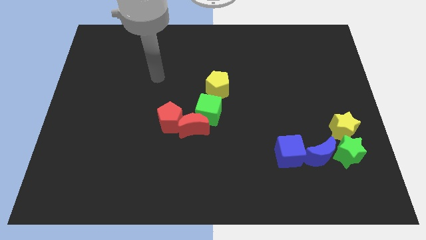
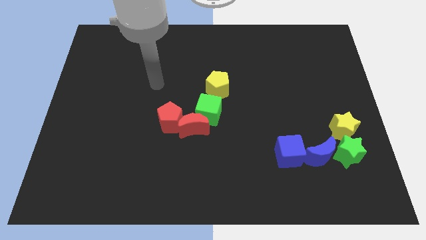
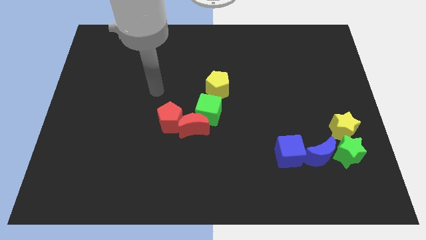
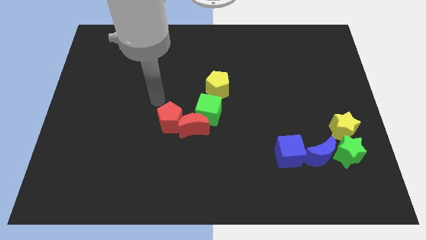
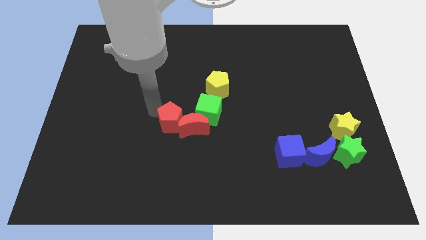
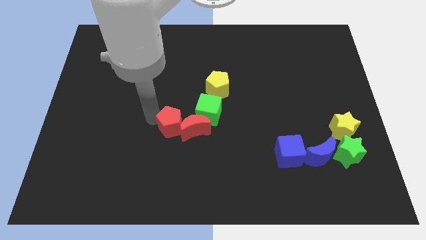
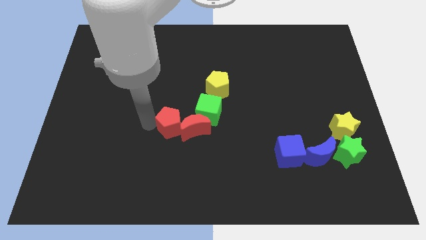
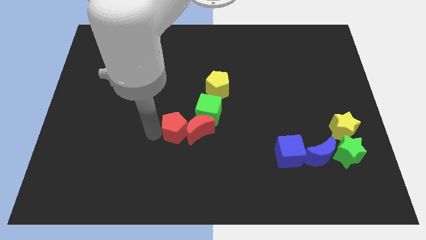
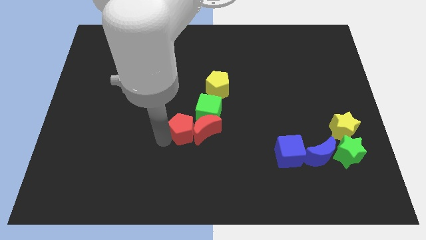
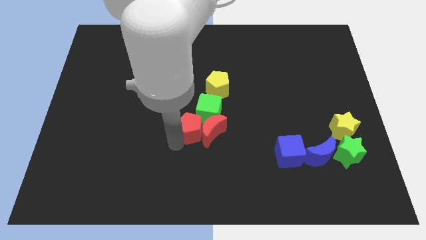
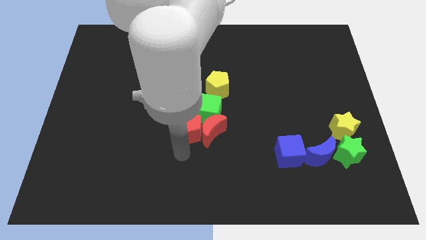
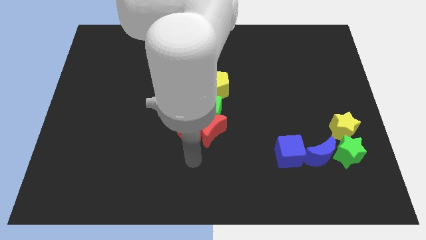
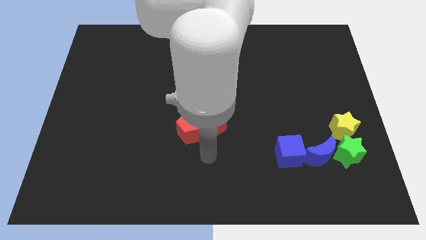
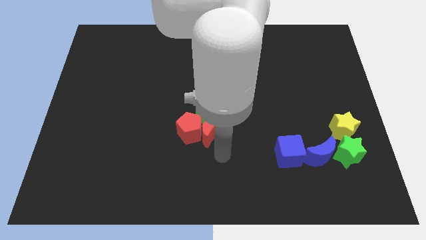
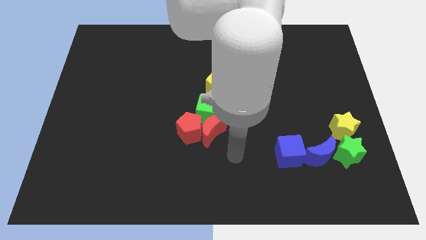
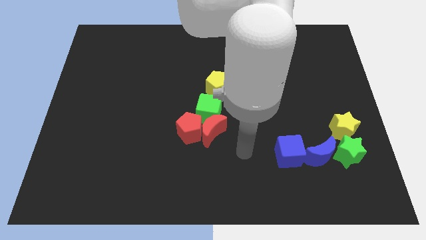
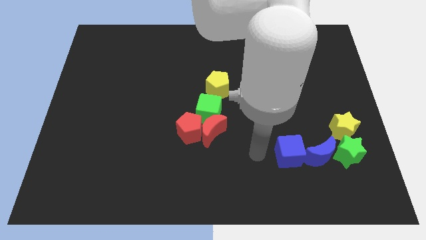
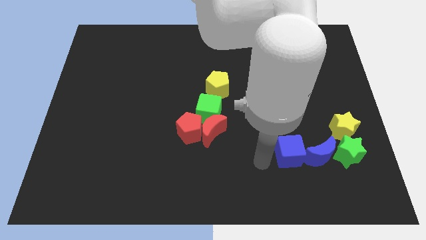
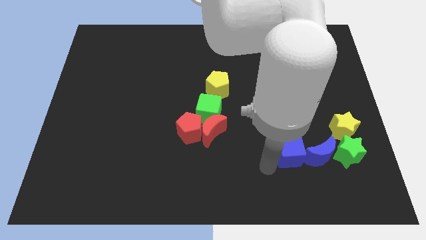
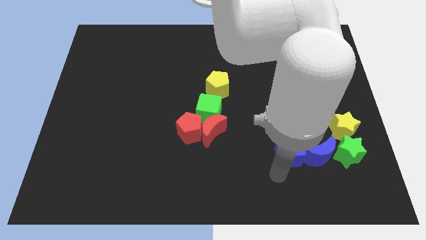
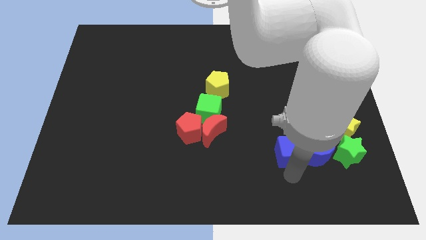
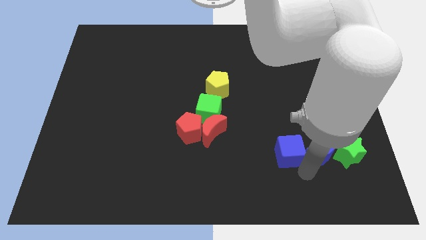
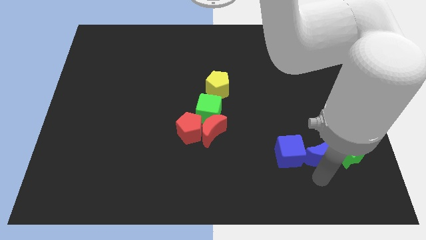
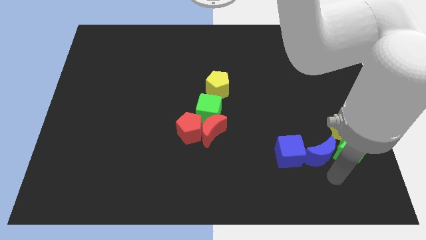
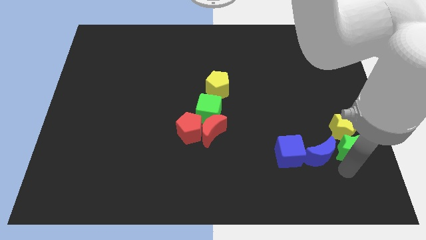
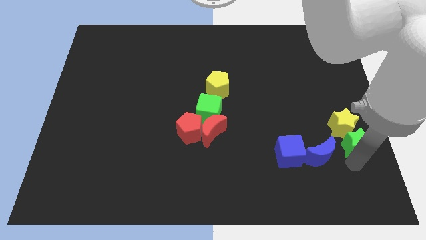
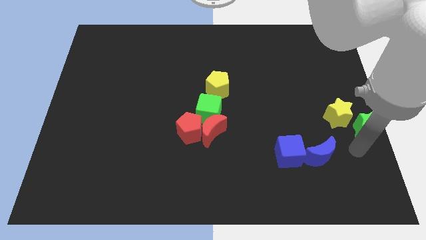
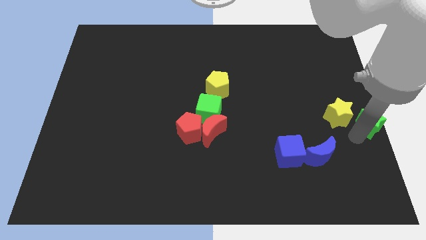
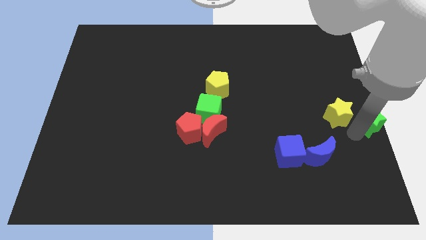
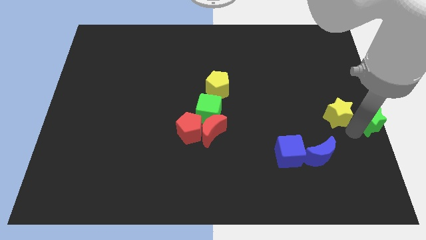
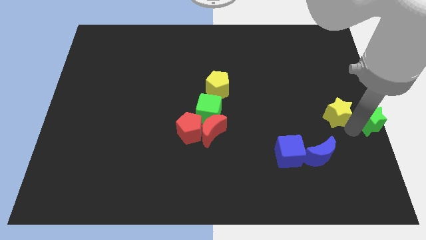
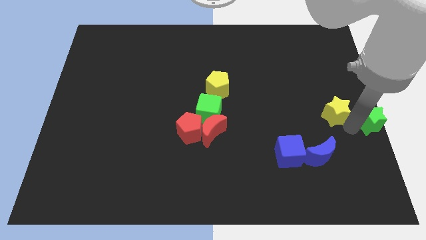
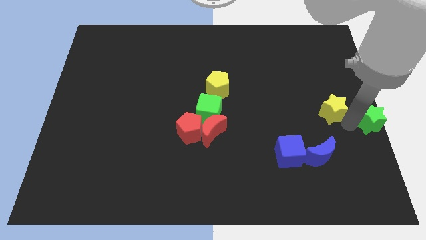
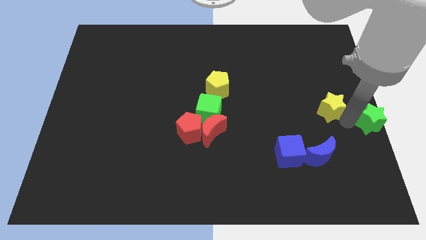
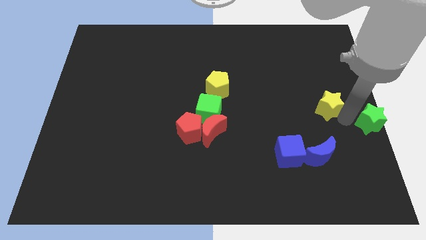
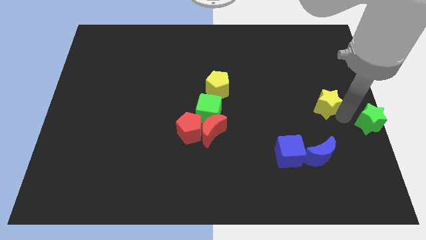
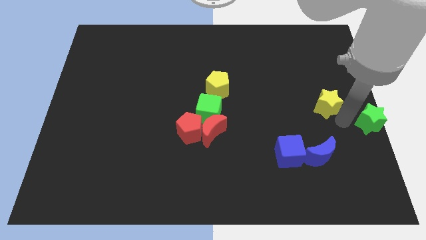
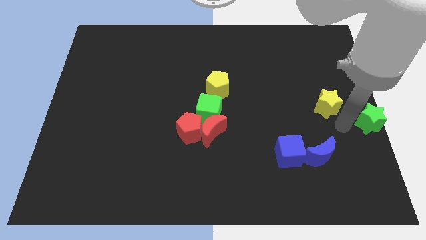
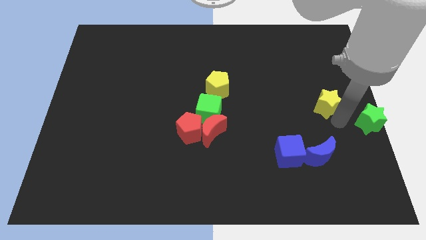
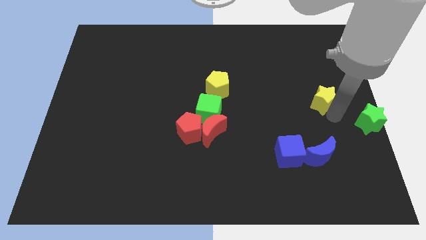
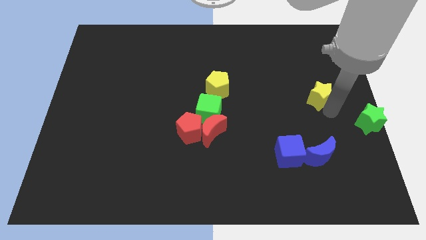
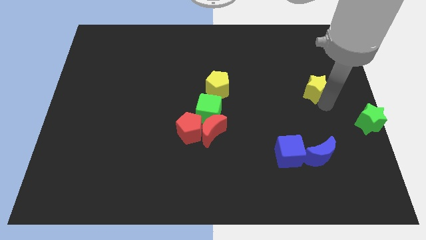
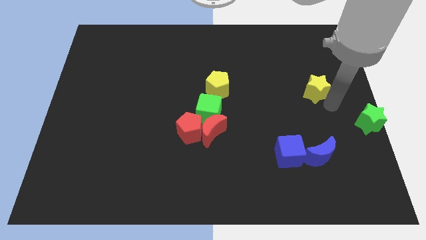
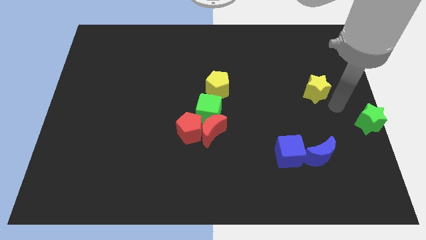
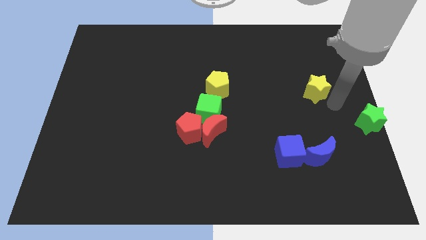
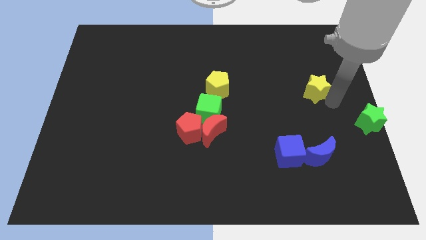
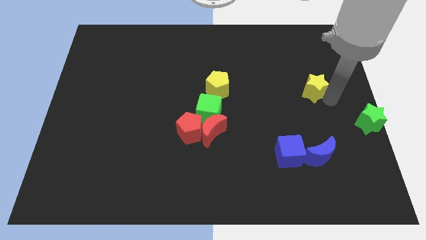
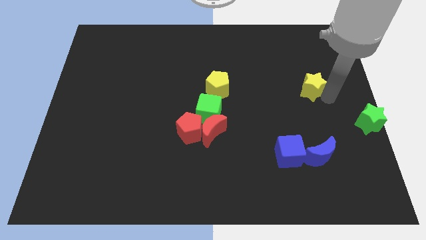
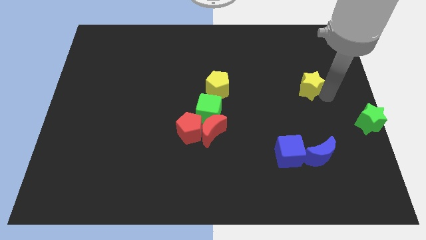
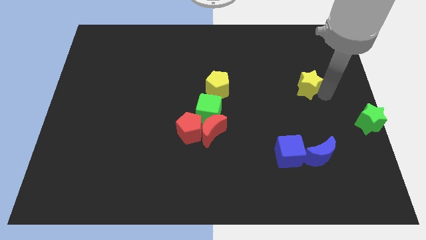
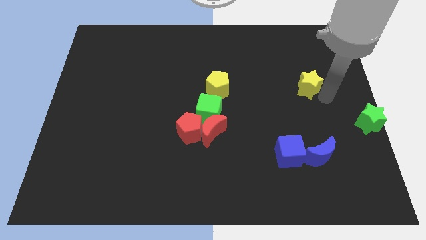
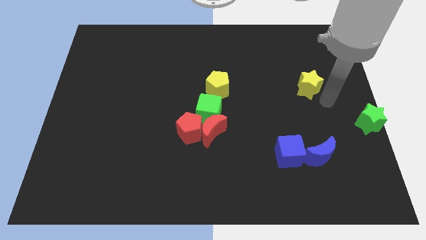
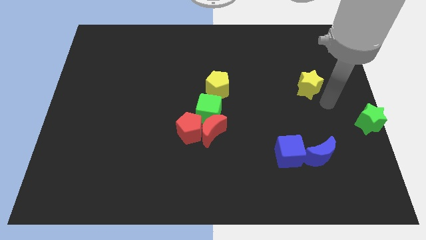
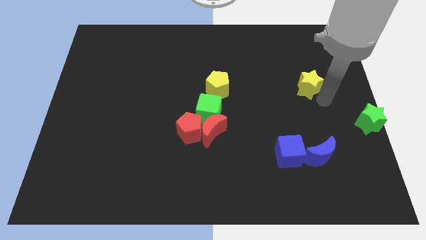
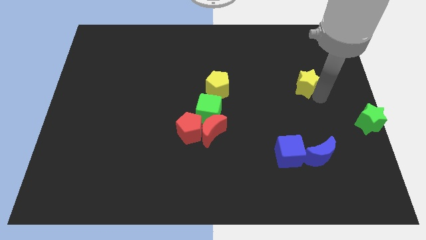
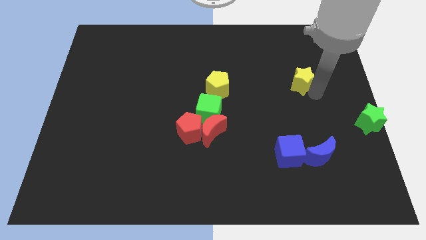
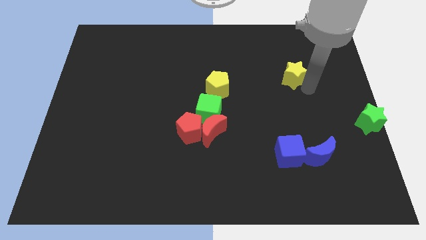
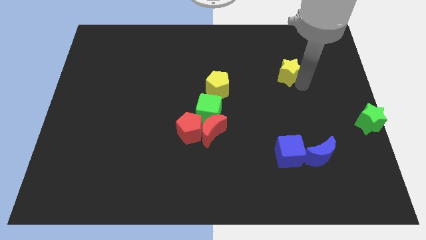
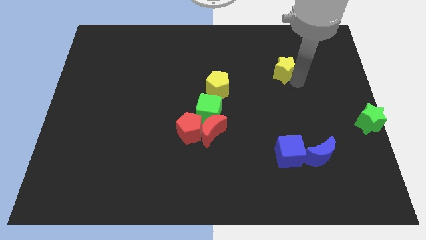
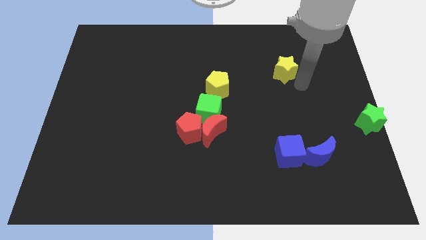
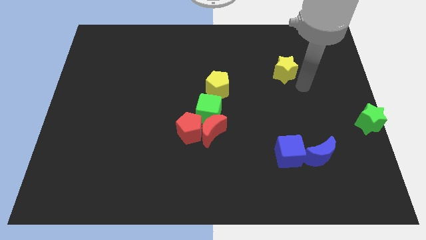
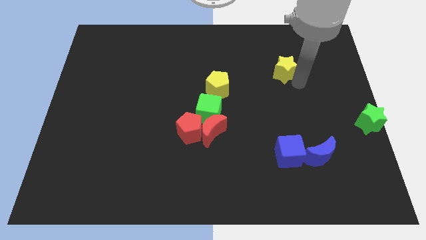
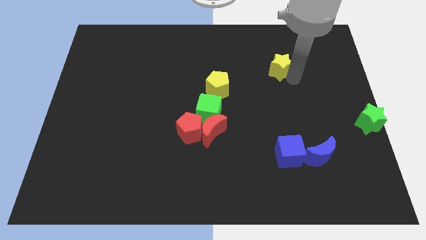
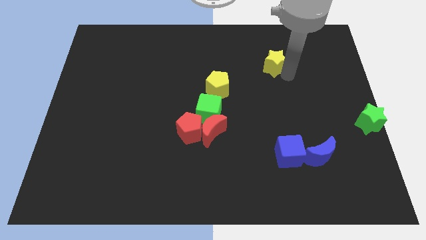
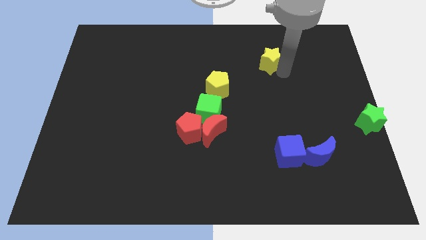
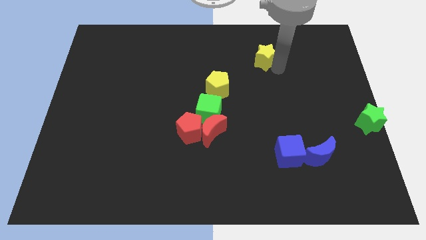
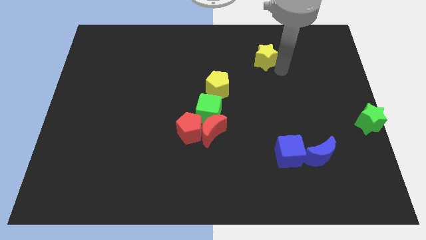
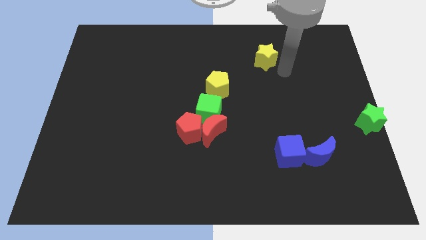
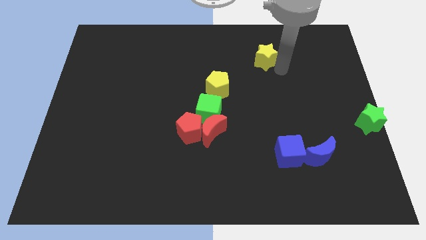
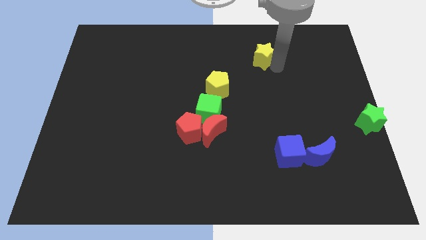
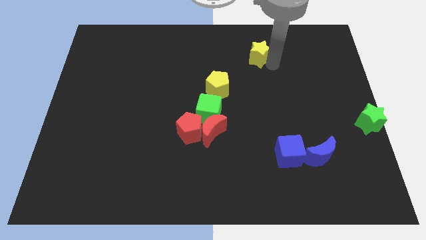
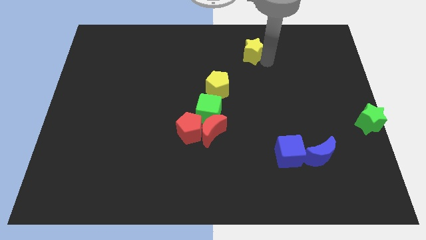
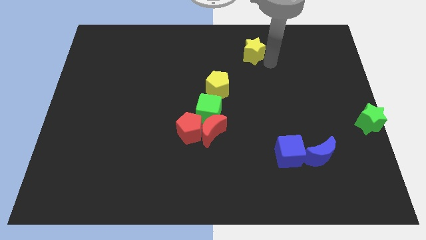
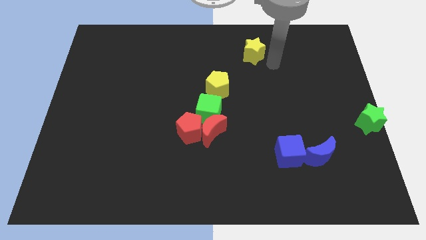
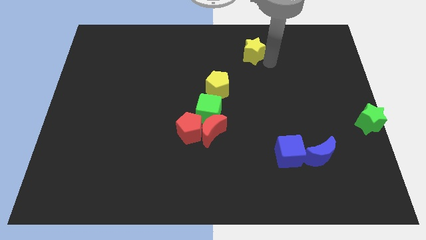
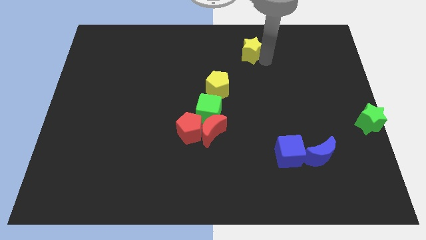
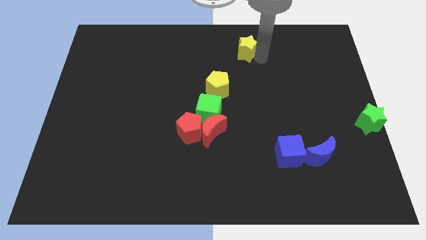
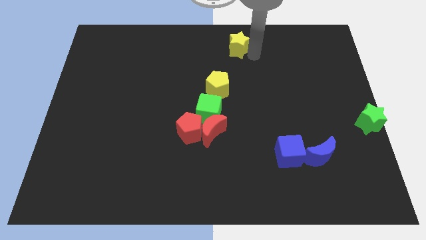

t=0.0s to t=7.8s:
push the yellow star to the top
